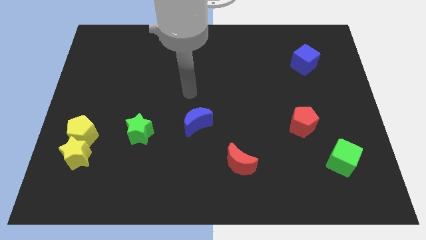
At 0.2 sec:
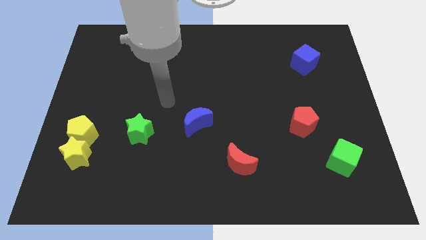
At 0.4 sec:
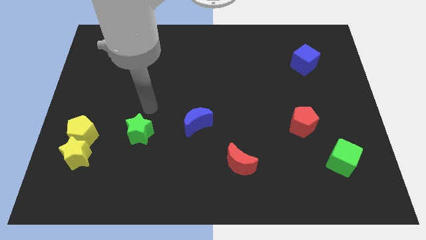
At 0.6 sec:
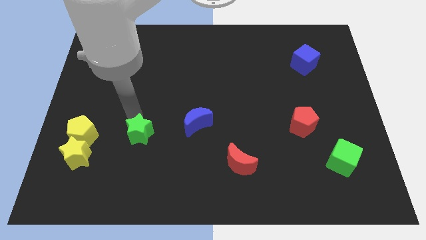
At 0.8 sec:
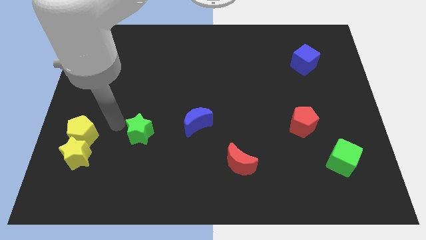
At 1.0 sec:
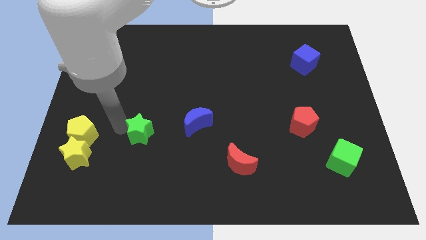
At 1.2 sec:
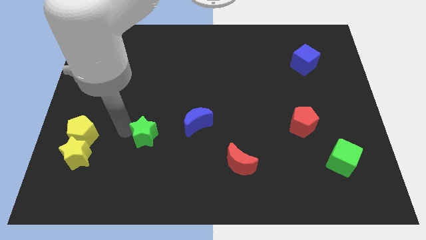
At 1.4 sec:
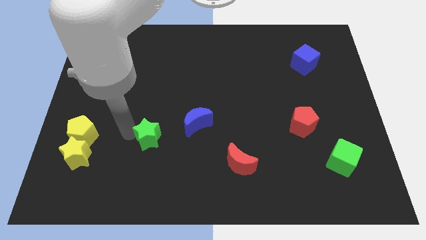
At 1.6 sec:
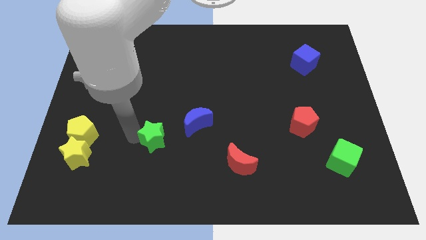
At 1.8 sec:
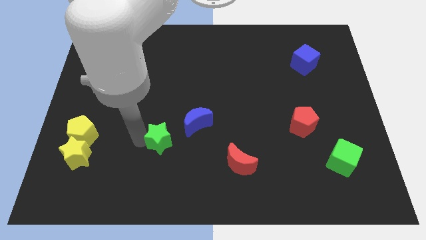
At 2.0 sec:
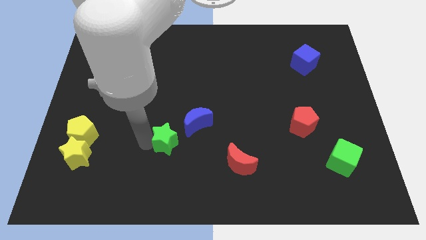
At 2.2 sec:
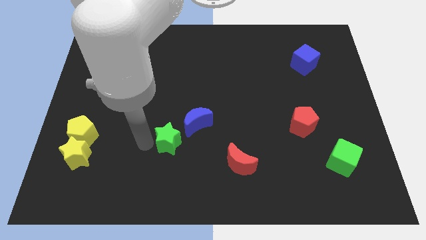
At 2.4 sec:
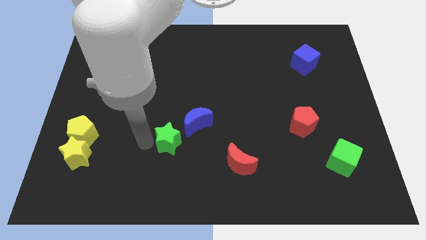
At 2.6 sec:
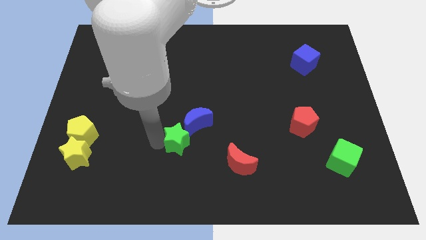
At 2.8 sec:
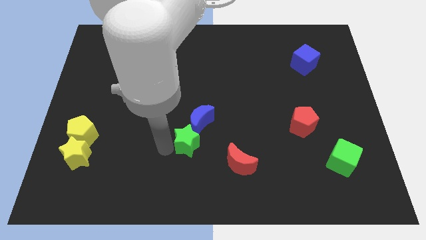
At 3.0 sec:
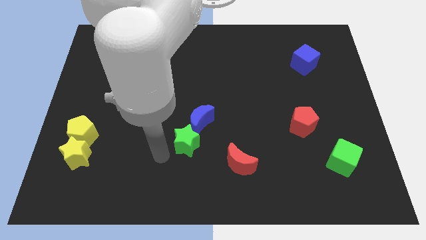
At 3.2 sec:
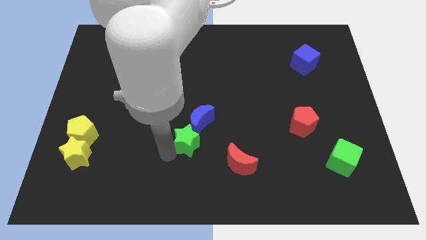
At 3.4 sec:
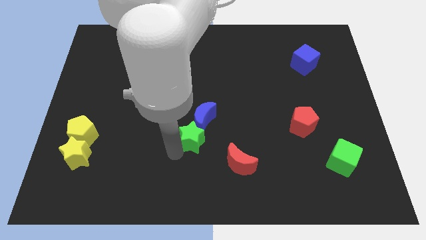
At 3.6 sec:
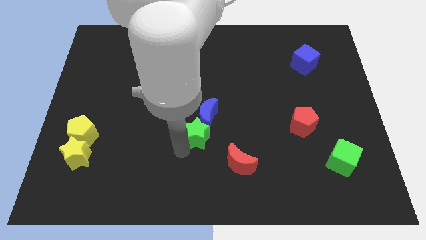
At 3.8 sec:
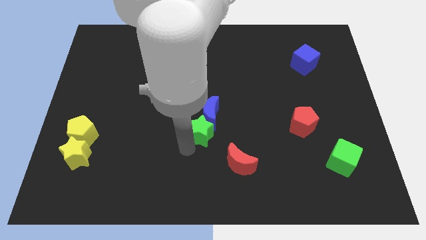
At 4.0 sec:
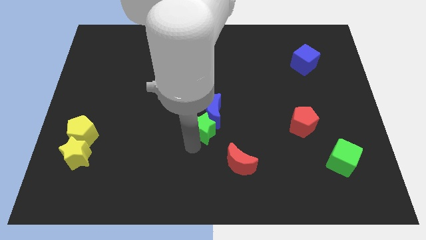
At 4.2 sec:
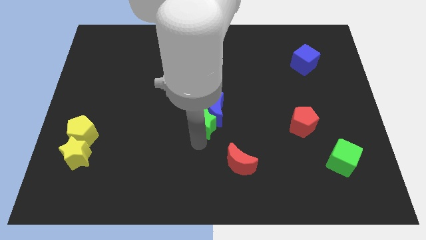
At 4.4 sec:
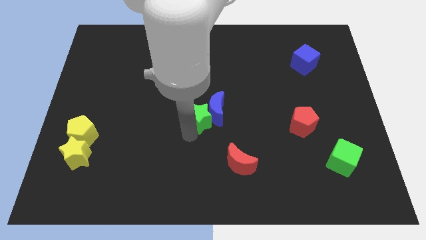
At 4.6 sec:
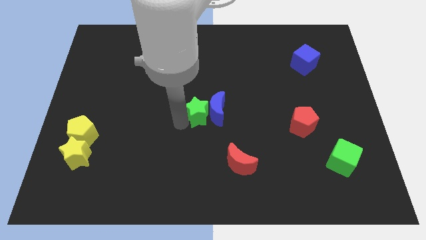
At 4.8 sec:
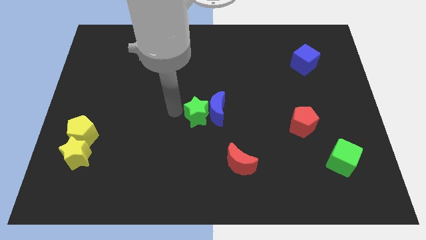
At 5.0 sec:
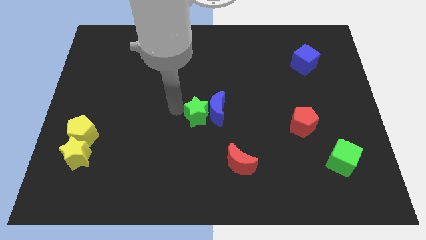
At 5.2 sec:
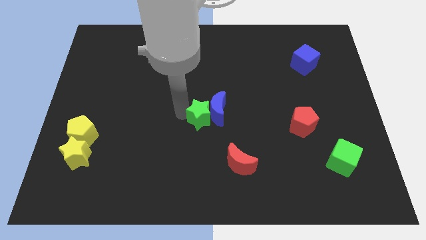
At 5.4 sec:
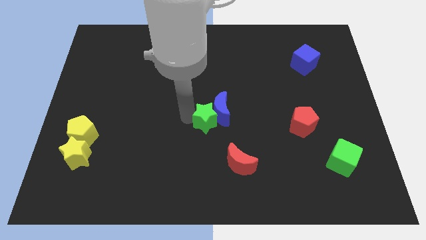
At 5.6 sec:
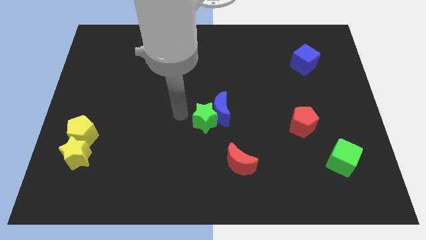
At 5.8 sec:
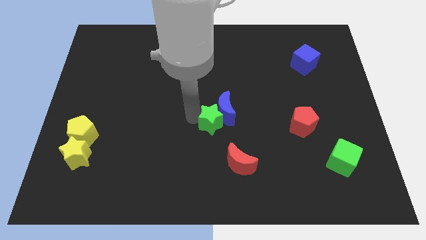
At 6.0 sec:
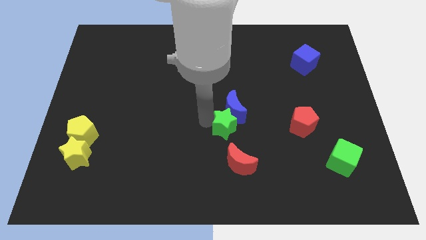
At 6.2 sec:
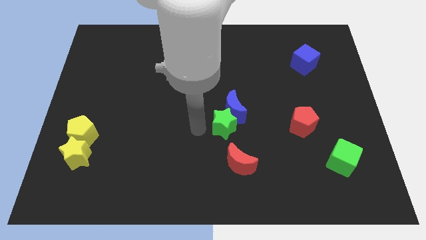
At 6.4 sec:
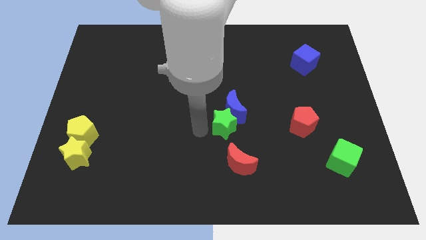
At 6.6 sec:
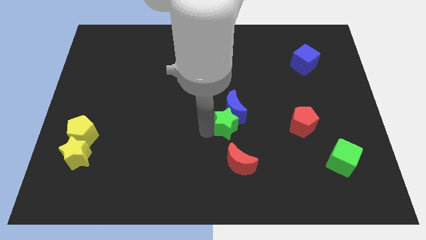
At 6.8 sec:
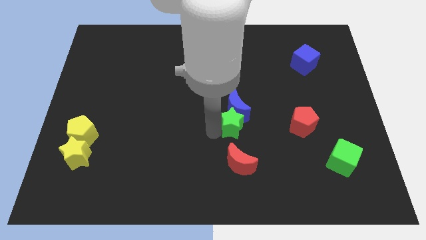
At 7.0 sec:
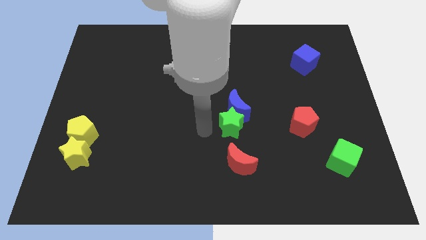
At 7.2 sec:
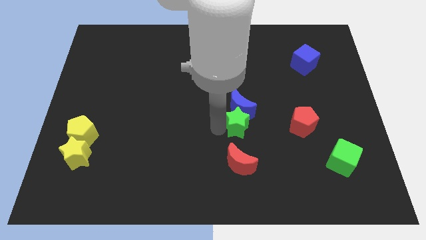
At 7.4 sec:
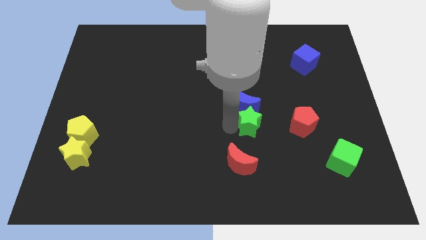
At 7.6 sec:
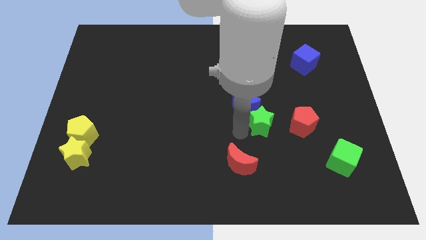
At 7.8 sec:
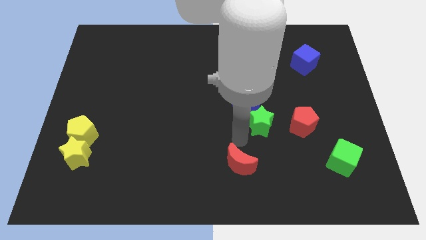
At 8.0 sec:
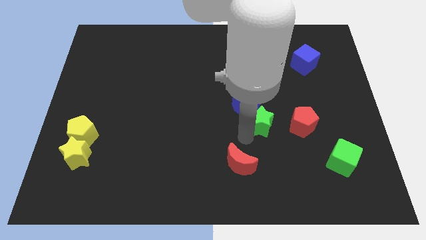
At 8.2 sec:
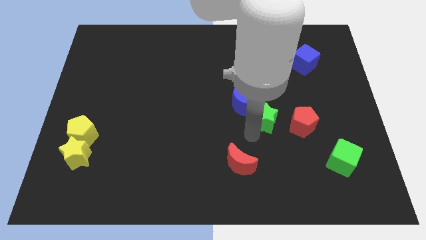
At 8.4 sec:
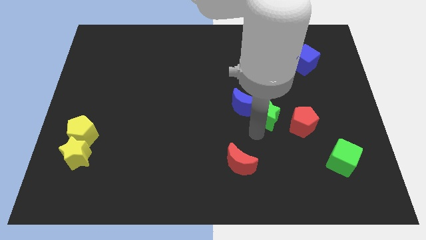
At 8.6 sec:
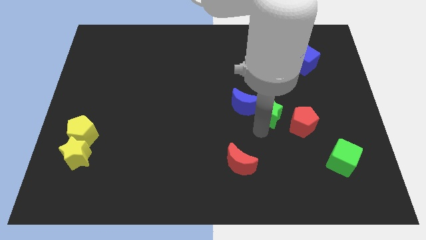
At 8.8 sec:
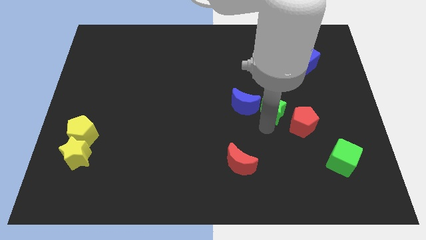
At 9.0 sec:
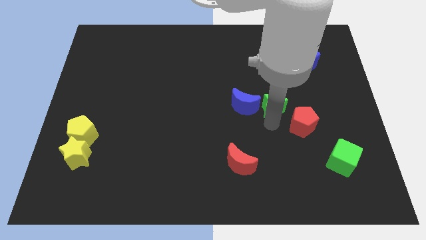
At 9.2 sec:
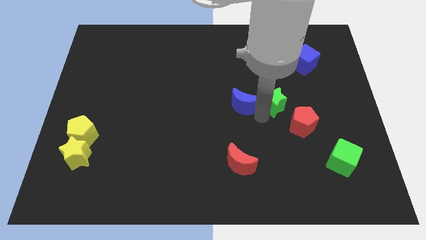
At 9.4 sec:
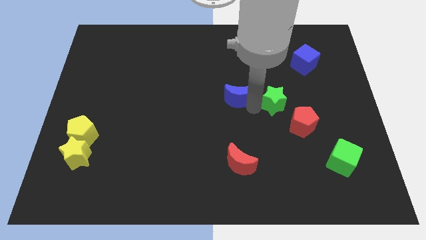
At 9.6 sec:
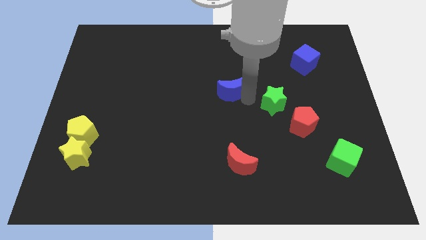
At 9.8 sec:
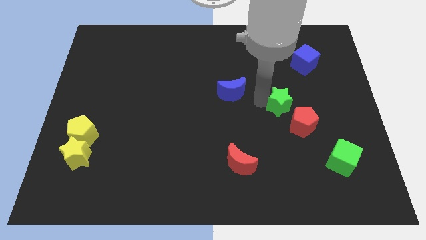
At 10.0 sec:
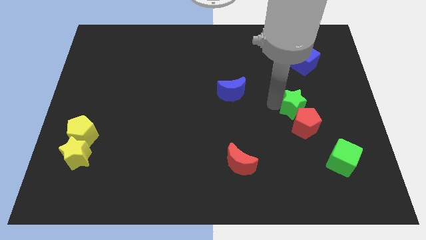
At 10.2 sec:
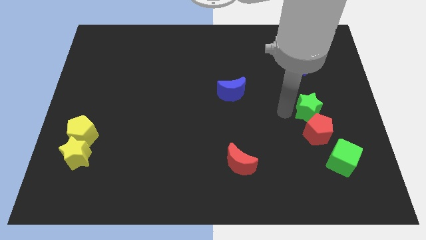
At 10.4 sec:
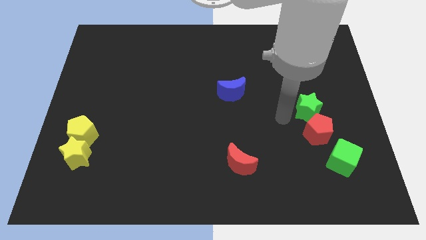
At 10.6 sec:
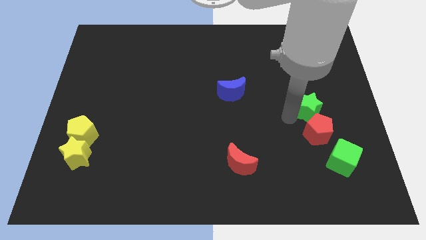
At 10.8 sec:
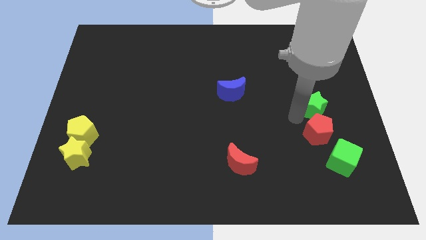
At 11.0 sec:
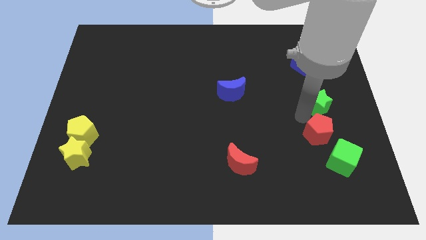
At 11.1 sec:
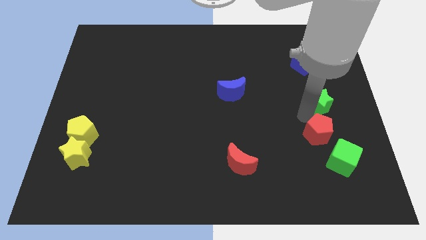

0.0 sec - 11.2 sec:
slide the green star to the center right

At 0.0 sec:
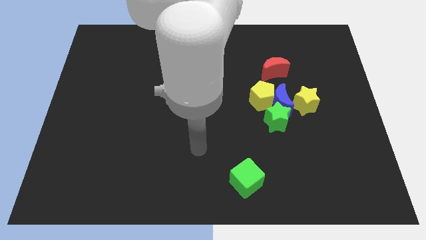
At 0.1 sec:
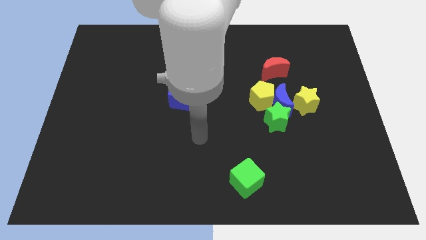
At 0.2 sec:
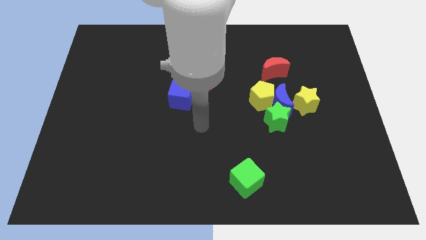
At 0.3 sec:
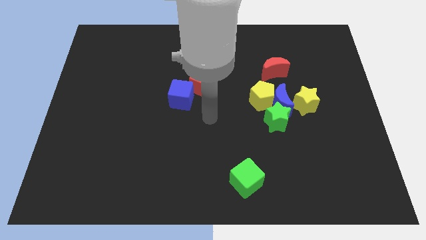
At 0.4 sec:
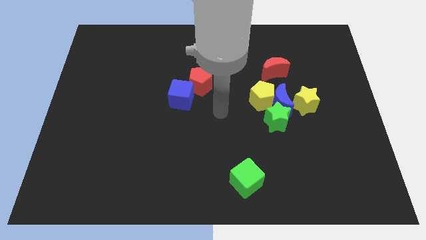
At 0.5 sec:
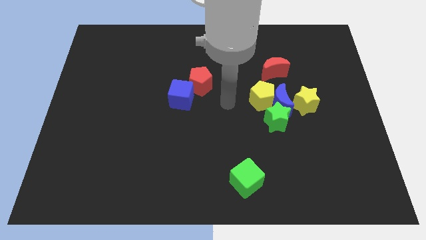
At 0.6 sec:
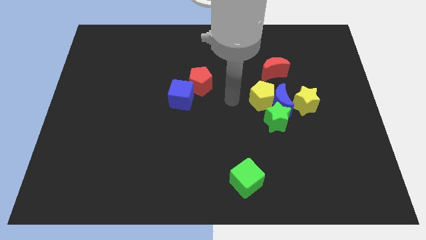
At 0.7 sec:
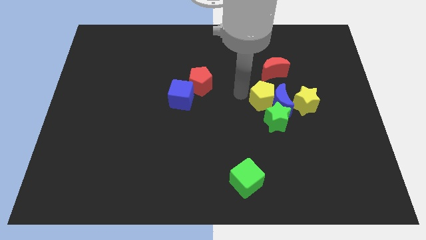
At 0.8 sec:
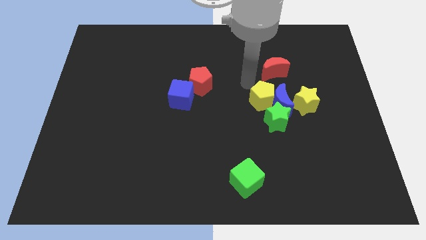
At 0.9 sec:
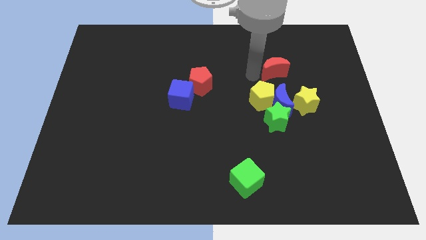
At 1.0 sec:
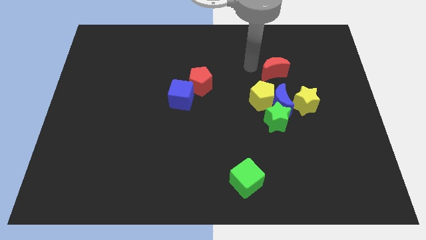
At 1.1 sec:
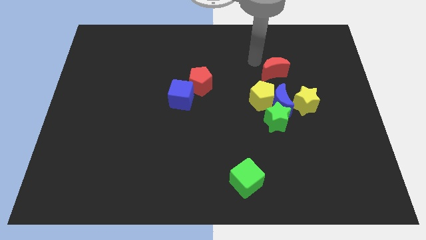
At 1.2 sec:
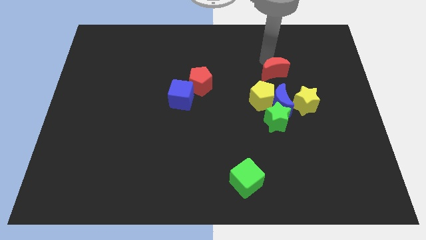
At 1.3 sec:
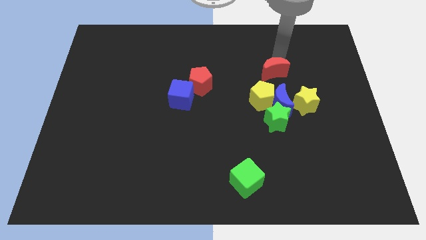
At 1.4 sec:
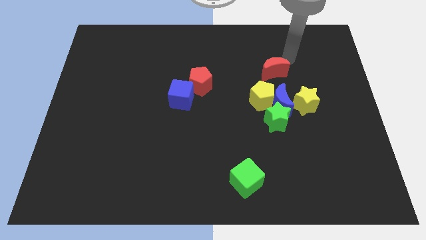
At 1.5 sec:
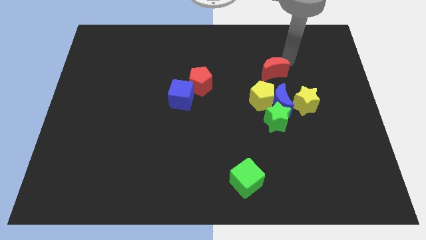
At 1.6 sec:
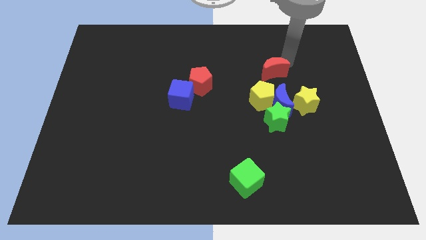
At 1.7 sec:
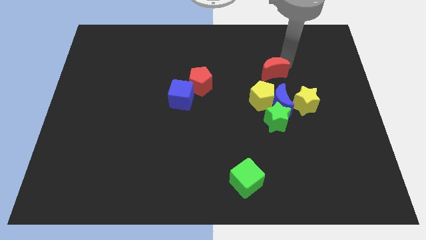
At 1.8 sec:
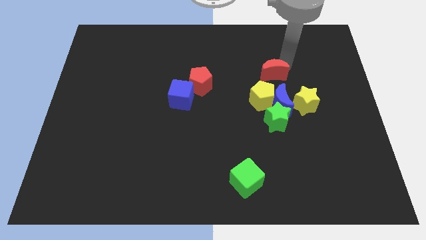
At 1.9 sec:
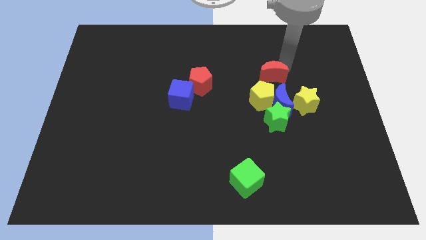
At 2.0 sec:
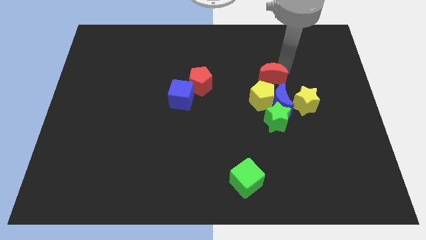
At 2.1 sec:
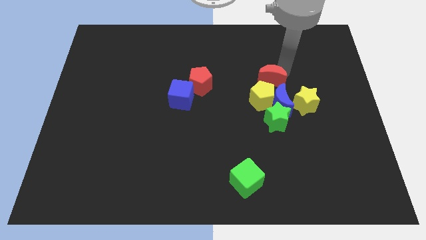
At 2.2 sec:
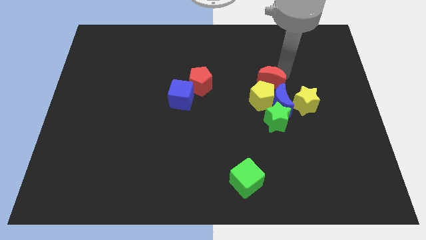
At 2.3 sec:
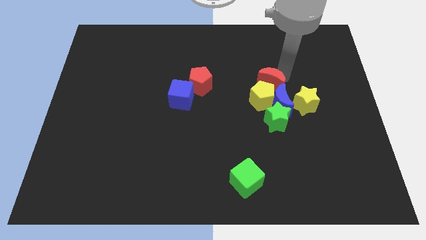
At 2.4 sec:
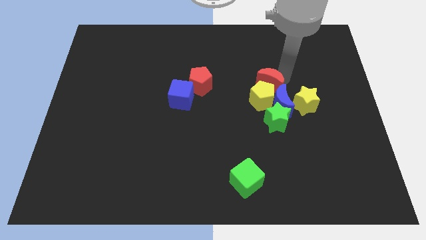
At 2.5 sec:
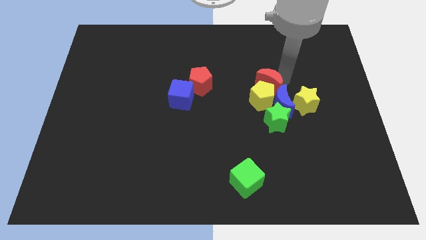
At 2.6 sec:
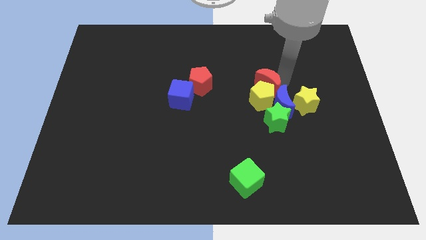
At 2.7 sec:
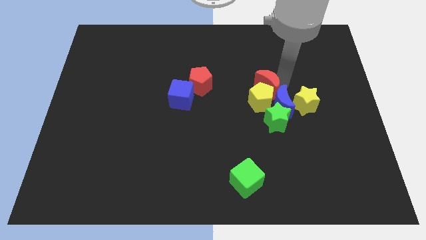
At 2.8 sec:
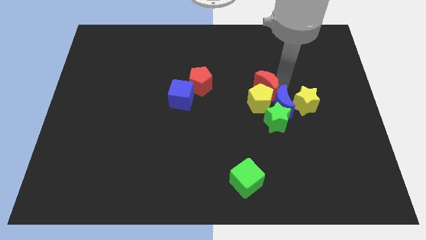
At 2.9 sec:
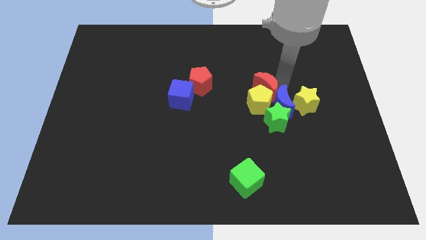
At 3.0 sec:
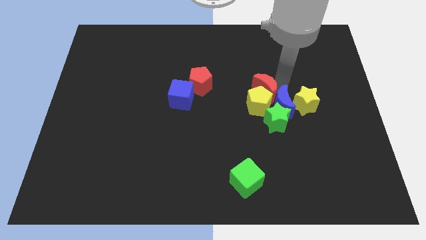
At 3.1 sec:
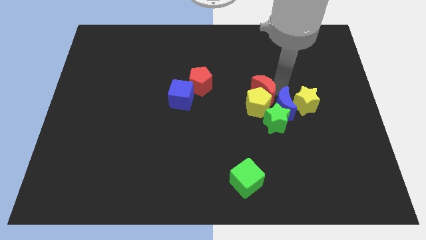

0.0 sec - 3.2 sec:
move the red moon to the center of the board
